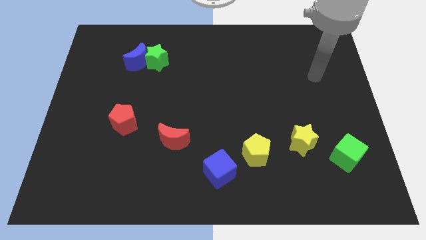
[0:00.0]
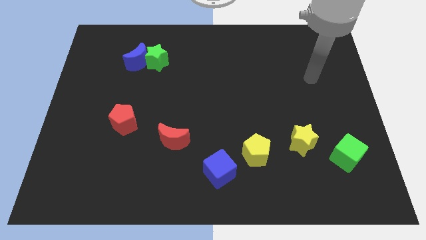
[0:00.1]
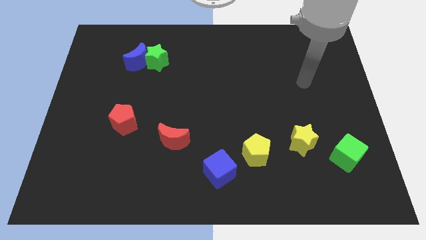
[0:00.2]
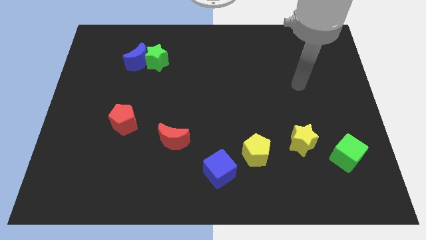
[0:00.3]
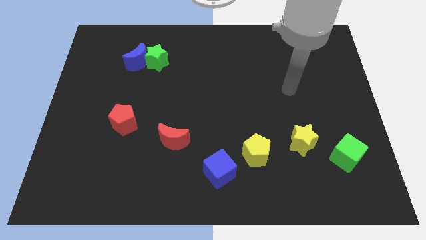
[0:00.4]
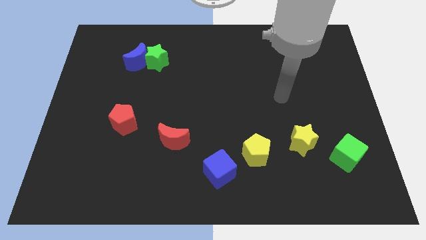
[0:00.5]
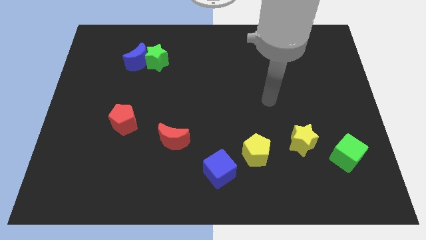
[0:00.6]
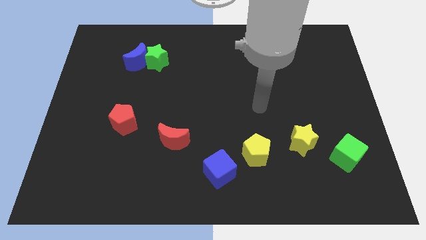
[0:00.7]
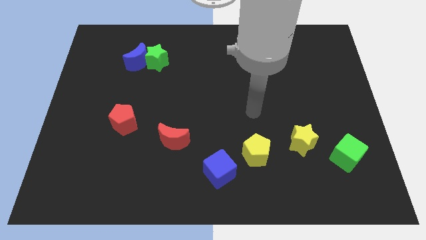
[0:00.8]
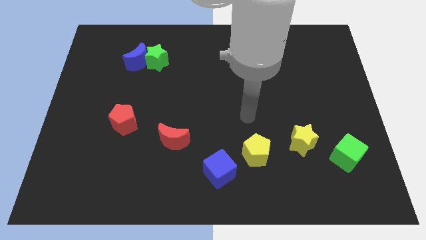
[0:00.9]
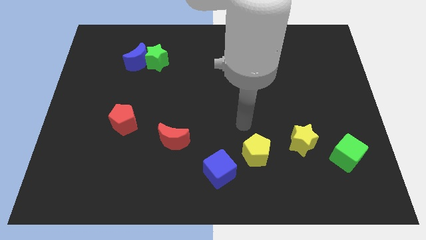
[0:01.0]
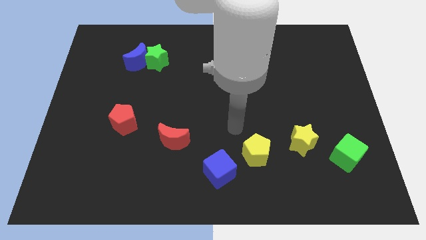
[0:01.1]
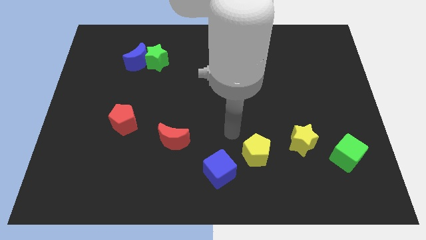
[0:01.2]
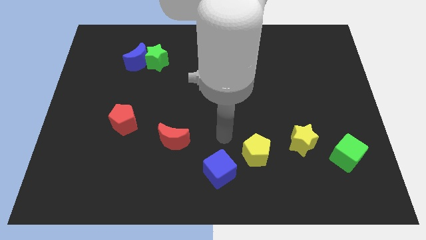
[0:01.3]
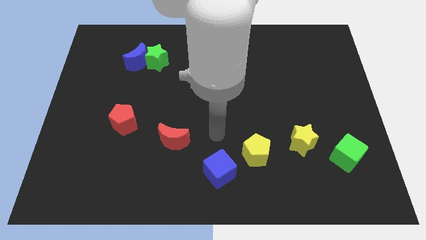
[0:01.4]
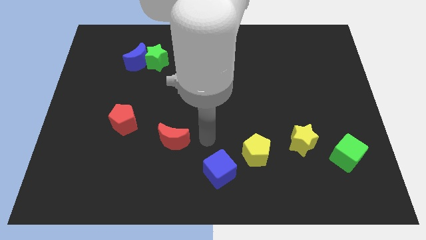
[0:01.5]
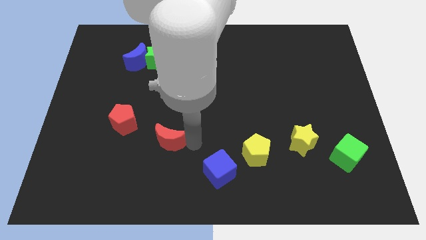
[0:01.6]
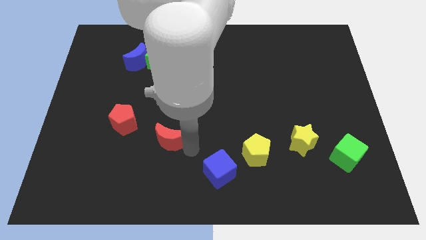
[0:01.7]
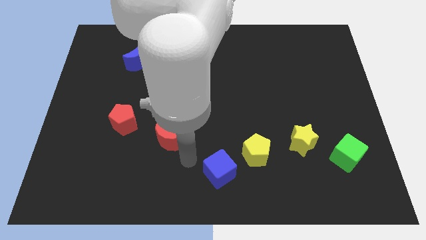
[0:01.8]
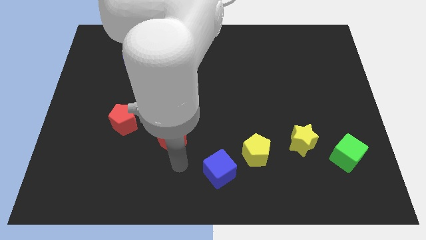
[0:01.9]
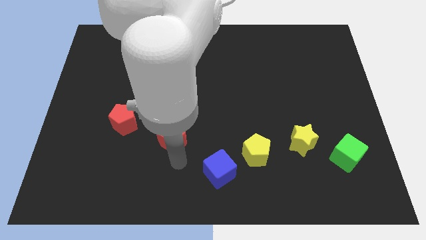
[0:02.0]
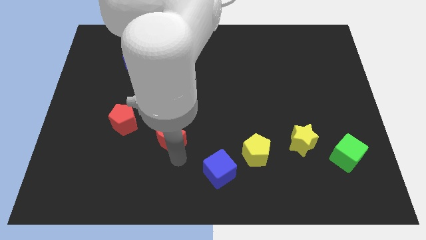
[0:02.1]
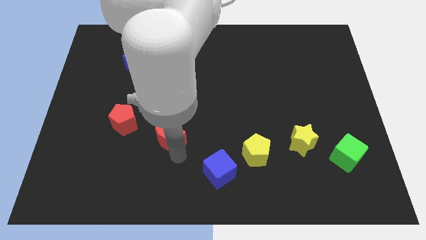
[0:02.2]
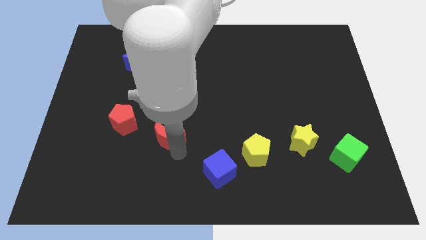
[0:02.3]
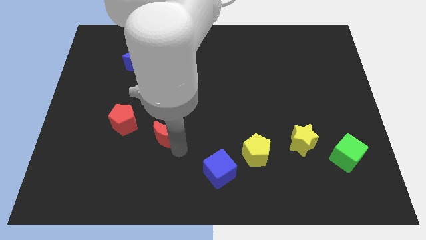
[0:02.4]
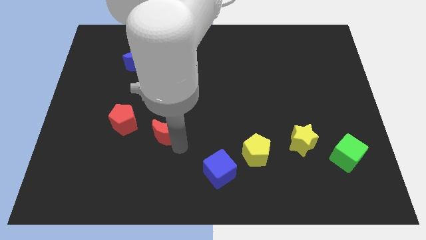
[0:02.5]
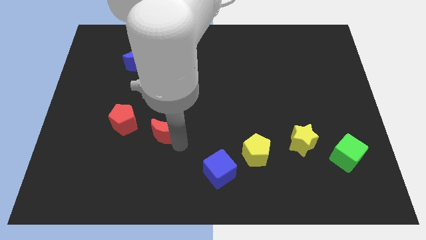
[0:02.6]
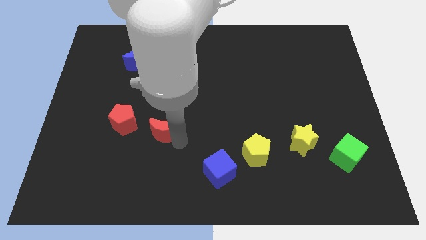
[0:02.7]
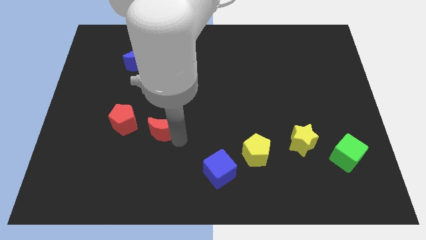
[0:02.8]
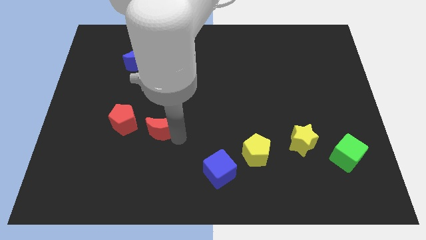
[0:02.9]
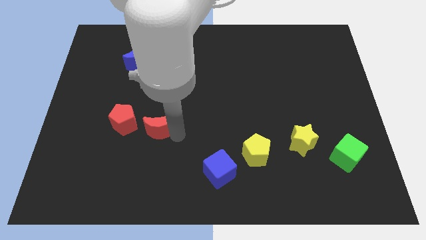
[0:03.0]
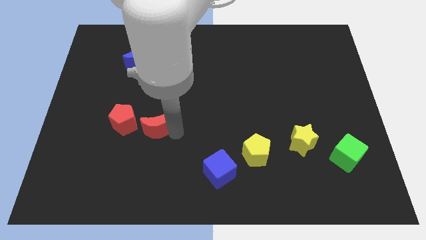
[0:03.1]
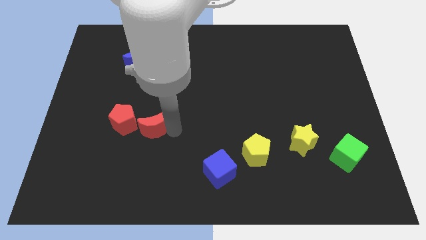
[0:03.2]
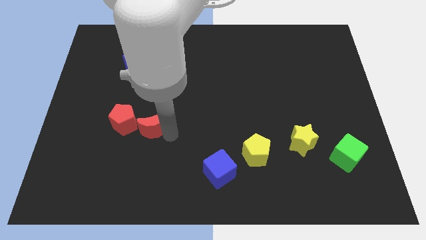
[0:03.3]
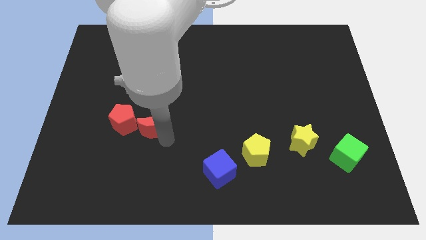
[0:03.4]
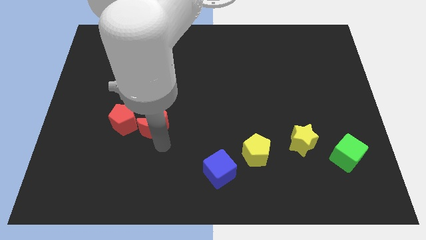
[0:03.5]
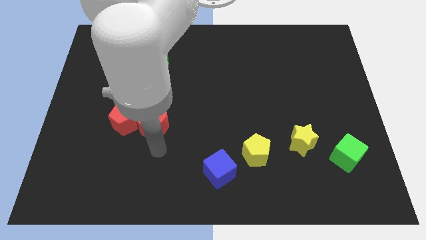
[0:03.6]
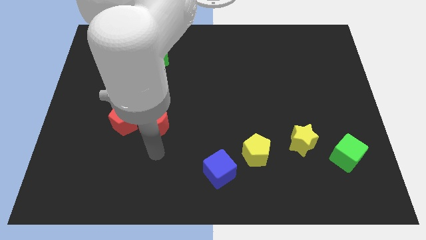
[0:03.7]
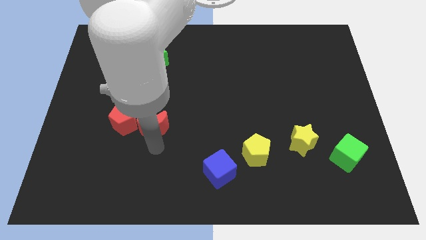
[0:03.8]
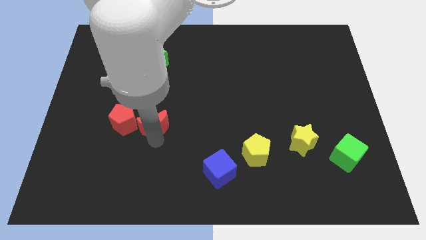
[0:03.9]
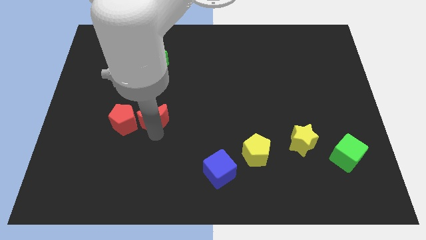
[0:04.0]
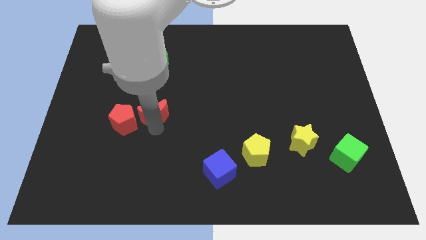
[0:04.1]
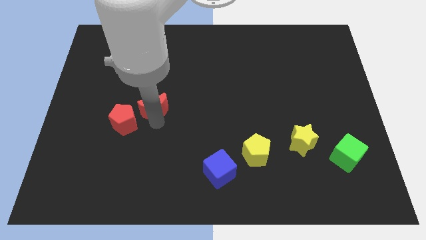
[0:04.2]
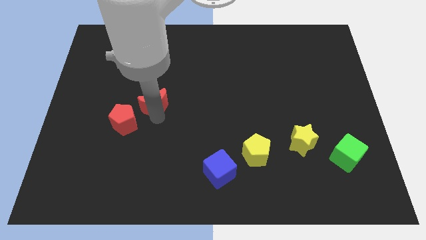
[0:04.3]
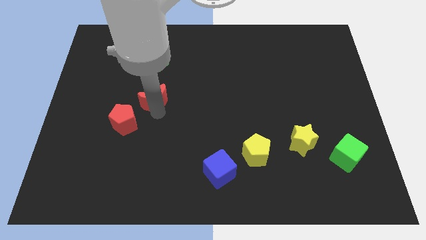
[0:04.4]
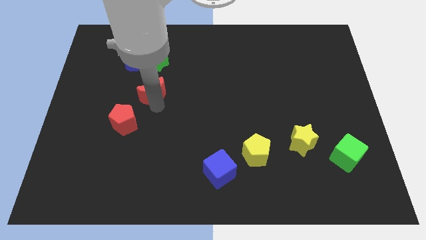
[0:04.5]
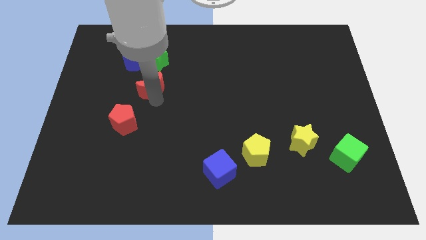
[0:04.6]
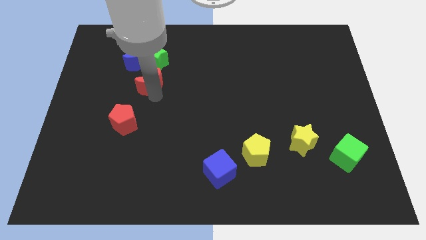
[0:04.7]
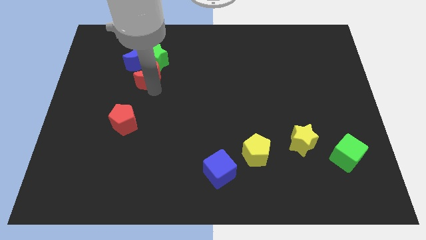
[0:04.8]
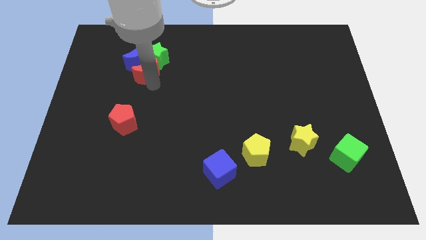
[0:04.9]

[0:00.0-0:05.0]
slide the red moon towards the blue moon

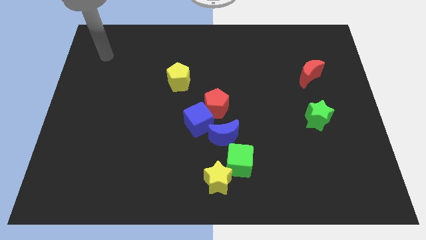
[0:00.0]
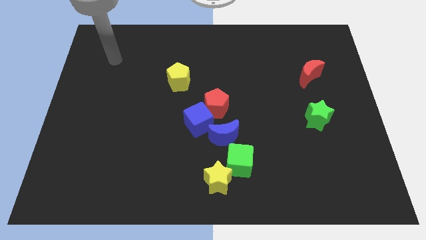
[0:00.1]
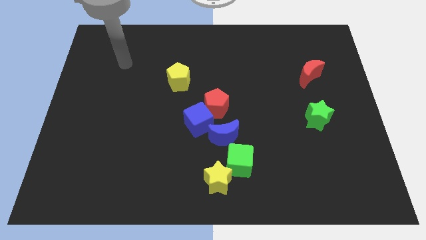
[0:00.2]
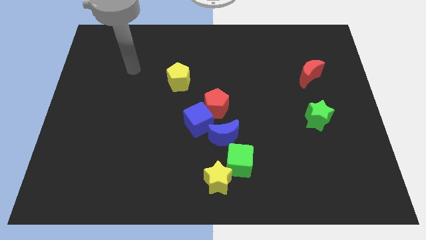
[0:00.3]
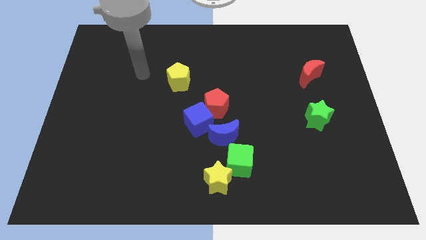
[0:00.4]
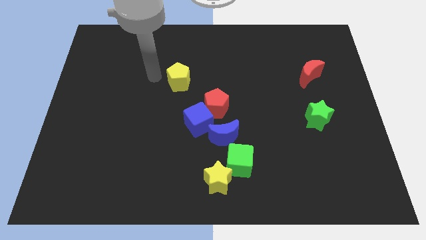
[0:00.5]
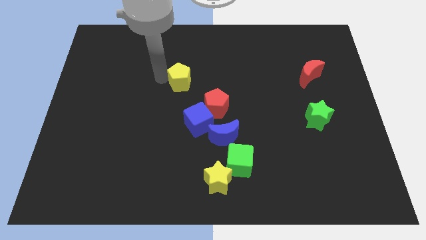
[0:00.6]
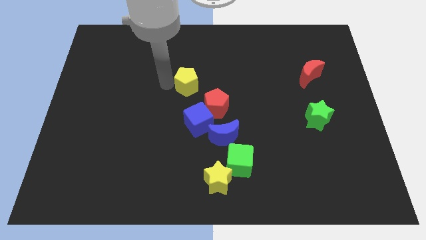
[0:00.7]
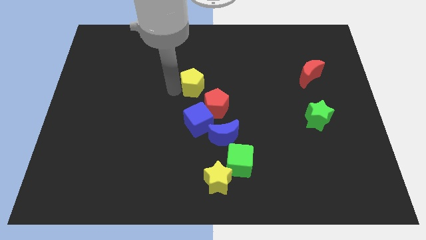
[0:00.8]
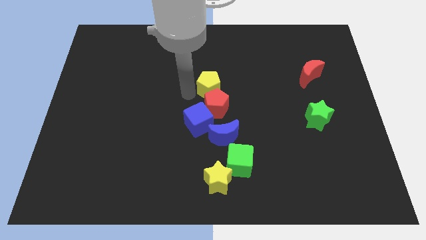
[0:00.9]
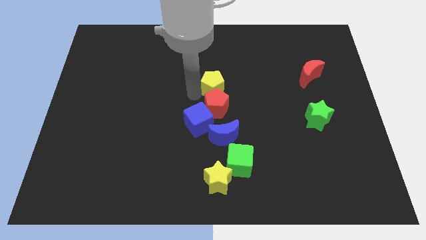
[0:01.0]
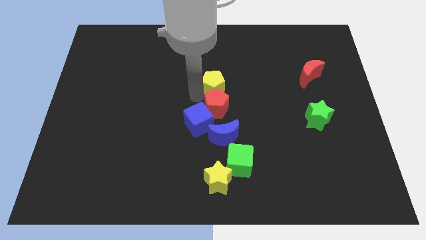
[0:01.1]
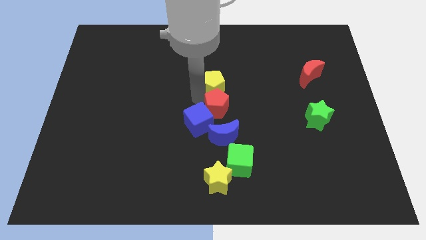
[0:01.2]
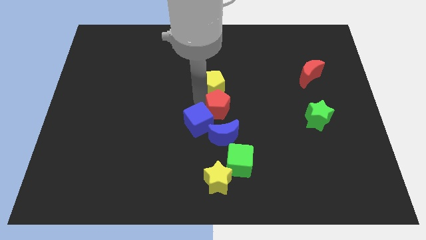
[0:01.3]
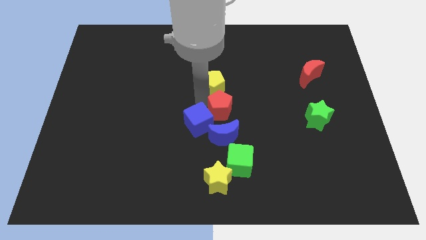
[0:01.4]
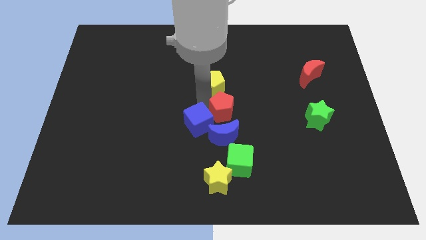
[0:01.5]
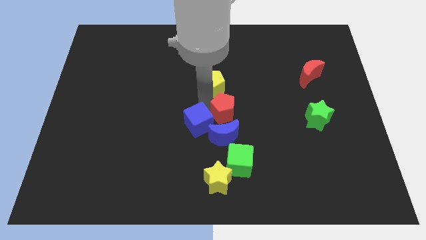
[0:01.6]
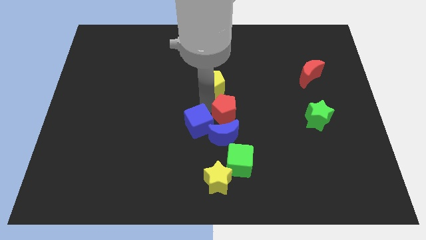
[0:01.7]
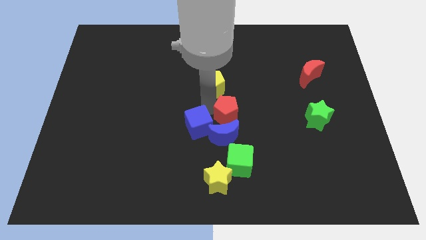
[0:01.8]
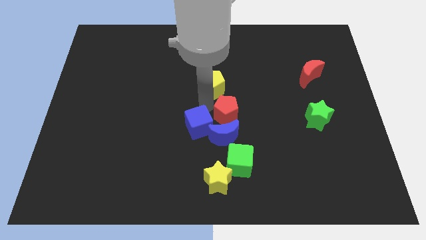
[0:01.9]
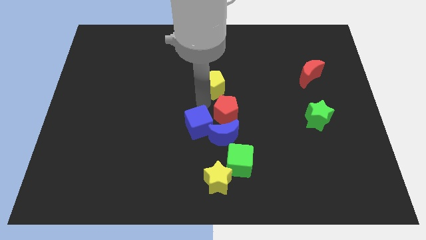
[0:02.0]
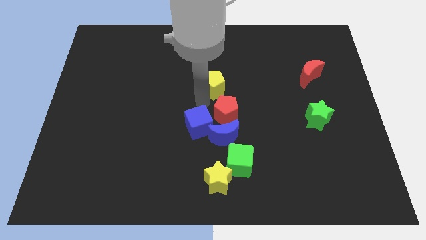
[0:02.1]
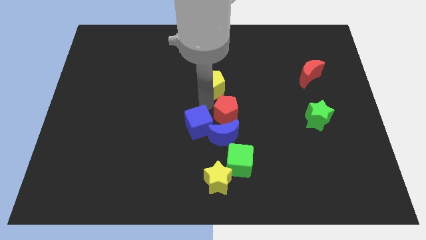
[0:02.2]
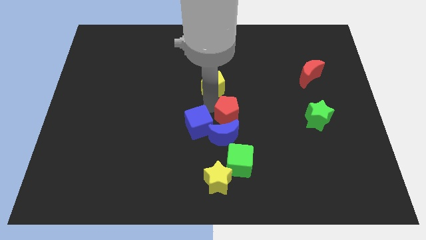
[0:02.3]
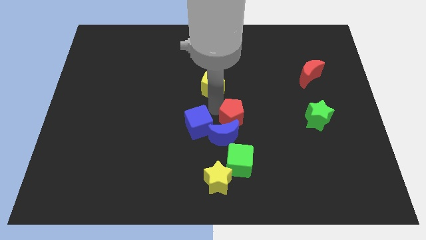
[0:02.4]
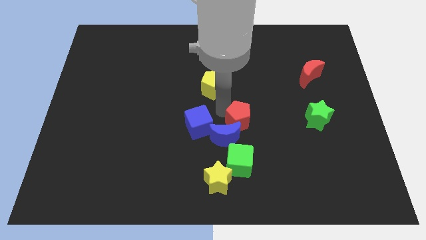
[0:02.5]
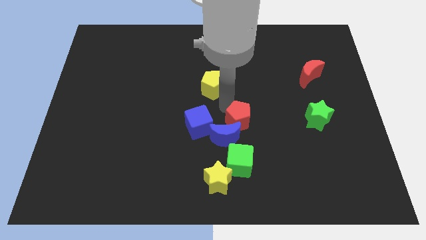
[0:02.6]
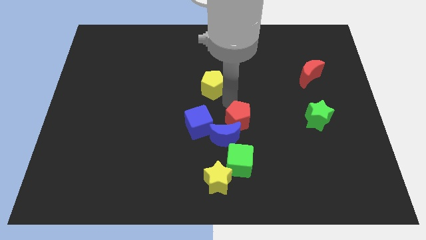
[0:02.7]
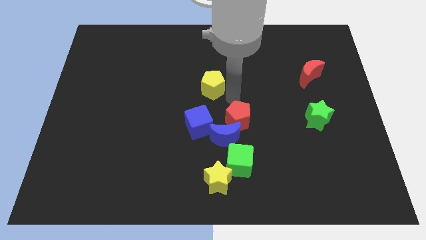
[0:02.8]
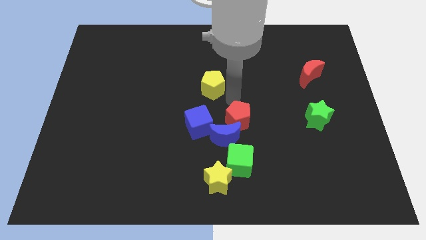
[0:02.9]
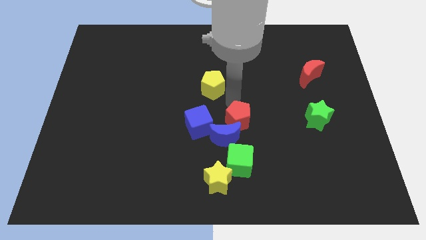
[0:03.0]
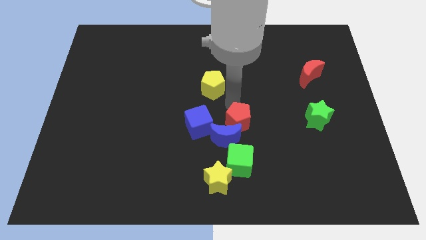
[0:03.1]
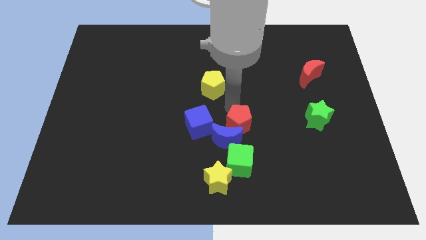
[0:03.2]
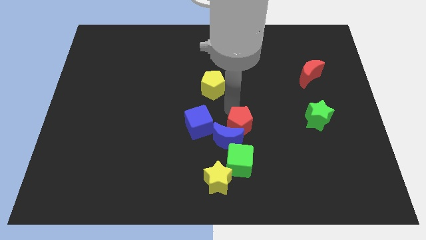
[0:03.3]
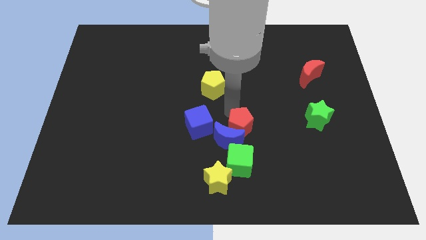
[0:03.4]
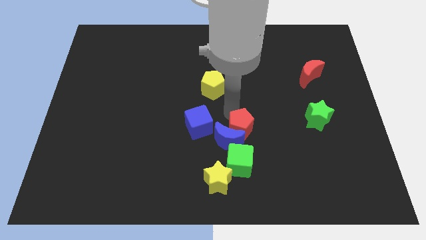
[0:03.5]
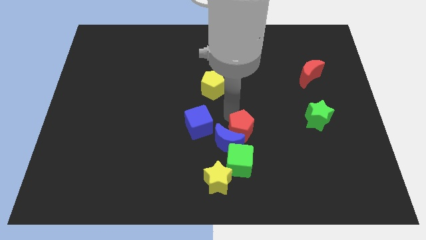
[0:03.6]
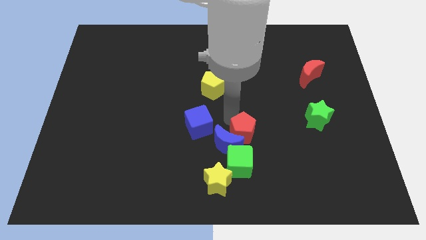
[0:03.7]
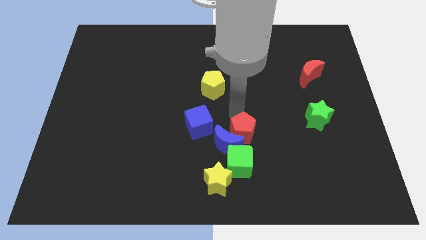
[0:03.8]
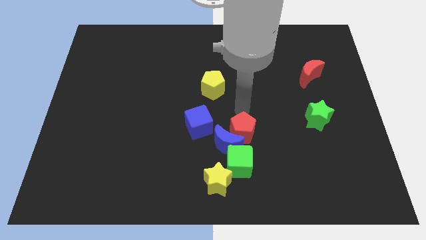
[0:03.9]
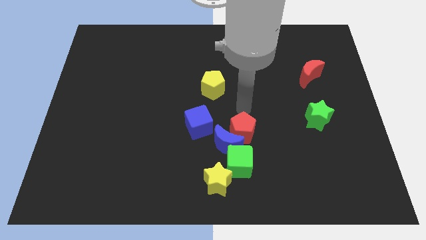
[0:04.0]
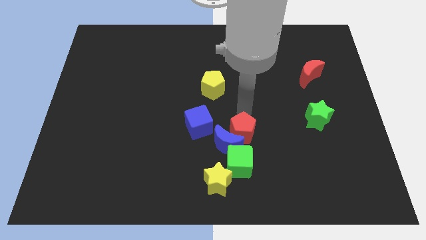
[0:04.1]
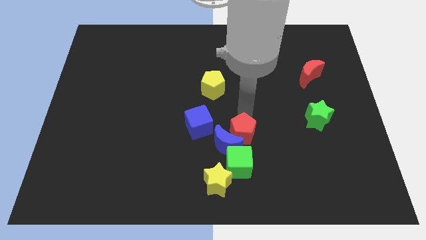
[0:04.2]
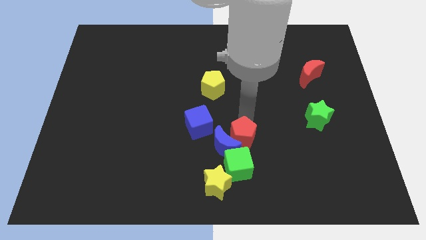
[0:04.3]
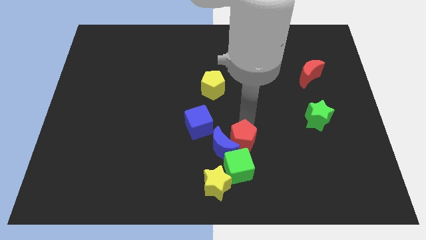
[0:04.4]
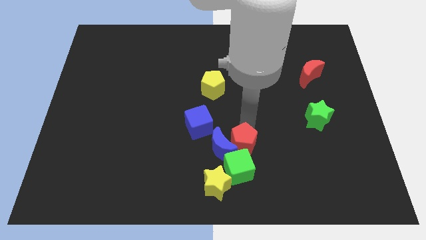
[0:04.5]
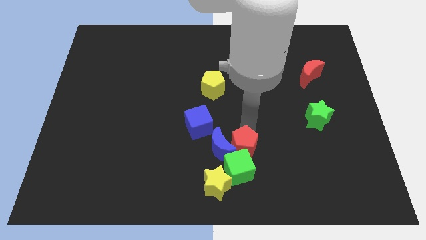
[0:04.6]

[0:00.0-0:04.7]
put the red pentagon to the green cube
